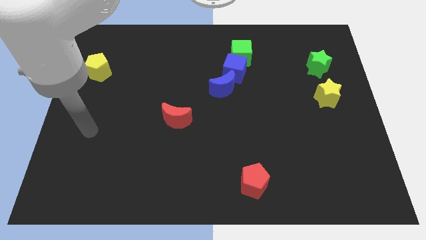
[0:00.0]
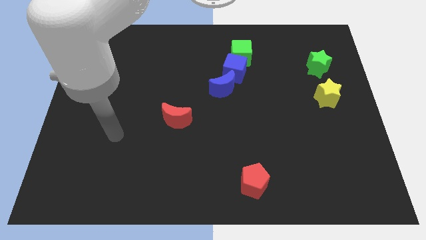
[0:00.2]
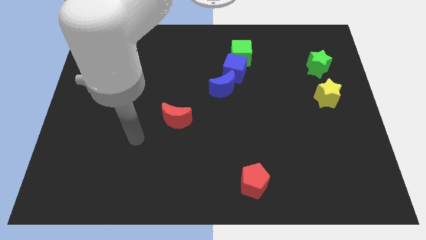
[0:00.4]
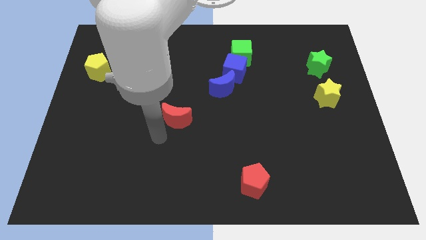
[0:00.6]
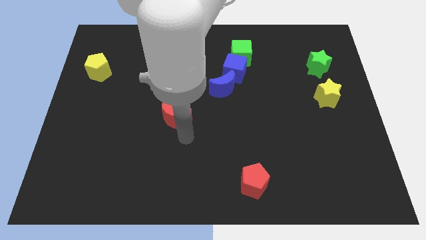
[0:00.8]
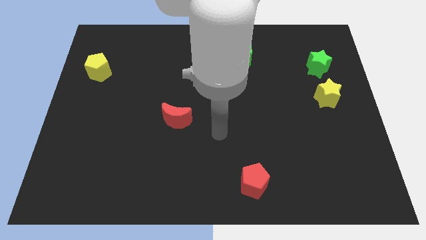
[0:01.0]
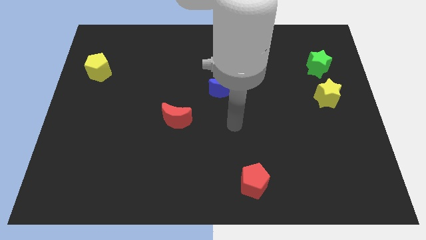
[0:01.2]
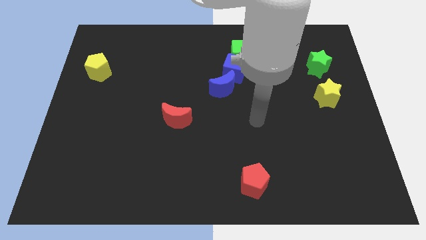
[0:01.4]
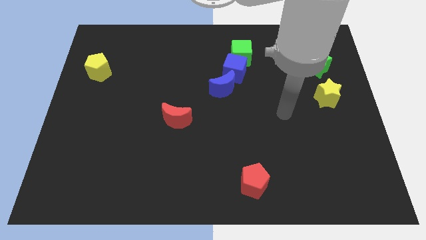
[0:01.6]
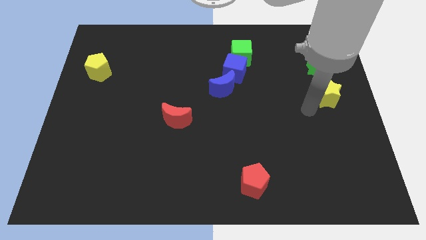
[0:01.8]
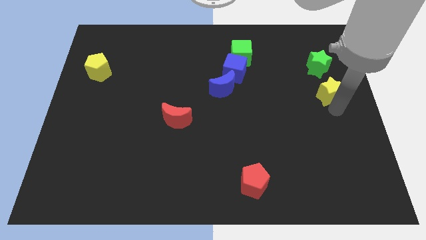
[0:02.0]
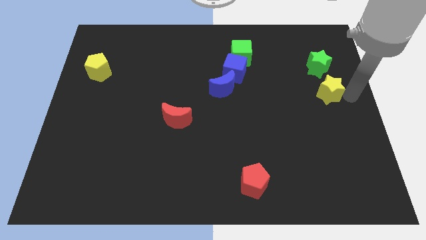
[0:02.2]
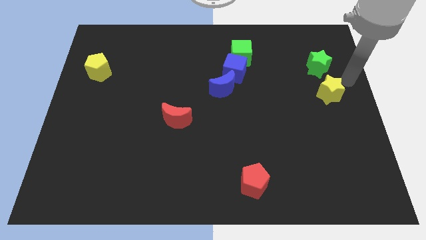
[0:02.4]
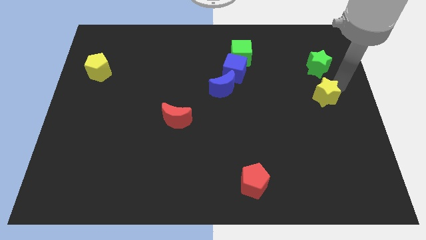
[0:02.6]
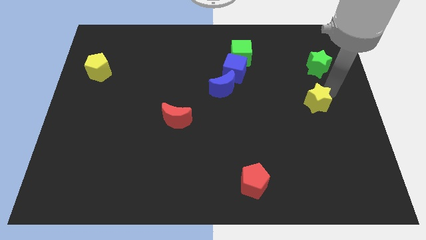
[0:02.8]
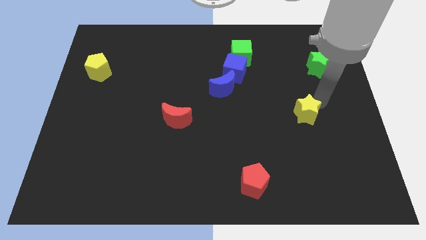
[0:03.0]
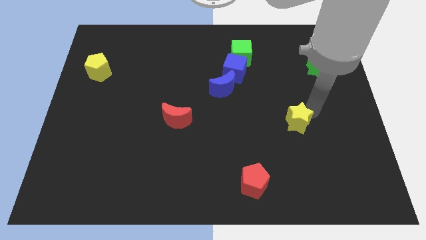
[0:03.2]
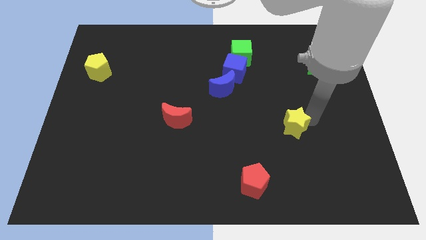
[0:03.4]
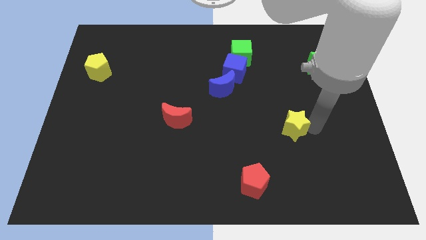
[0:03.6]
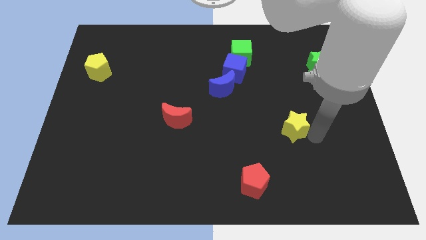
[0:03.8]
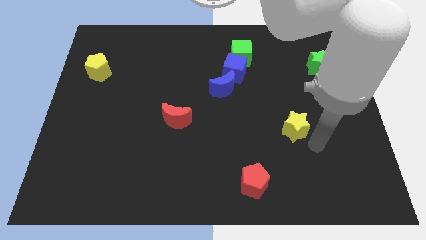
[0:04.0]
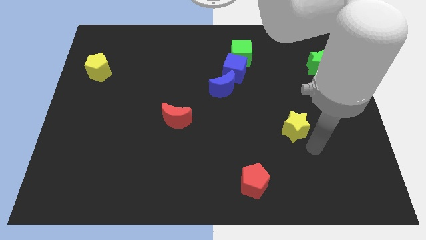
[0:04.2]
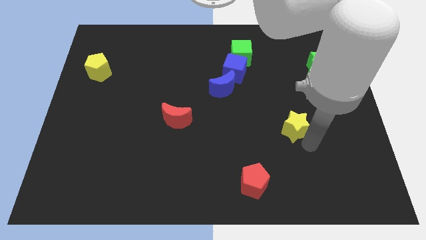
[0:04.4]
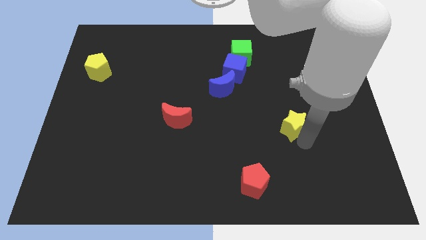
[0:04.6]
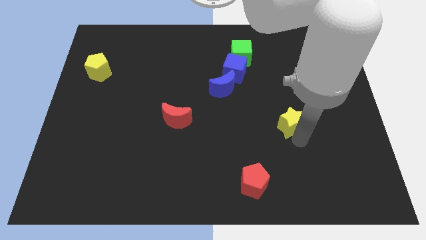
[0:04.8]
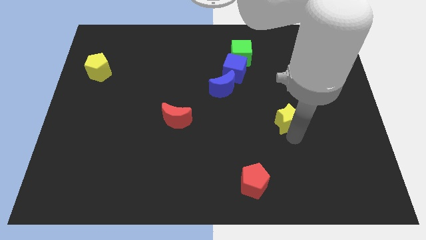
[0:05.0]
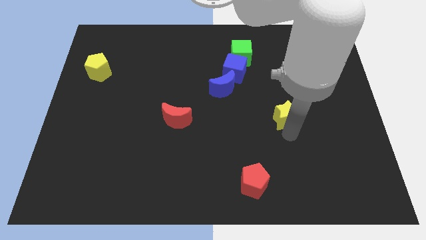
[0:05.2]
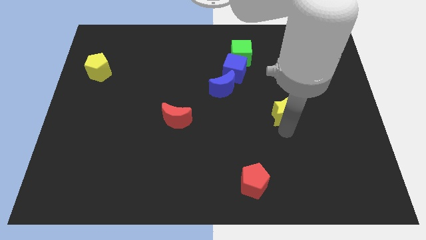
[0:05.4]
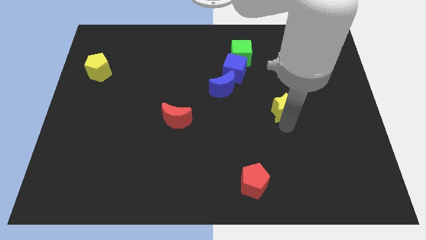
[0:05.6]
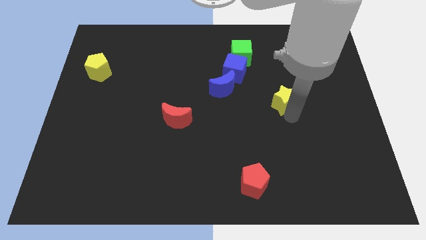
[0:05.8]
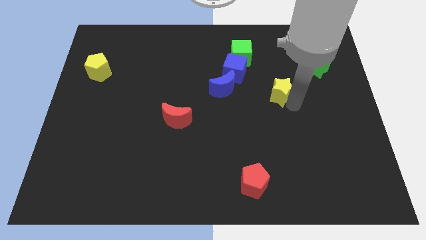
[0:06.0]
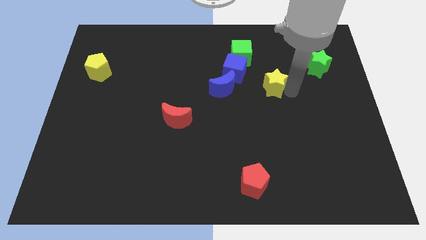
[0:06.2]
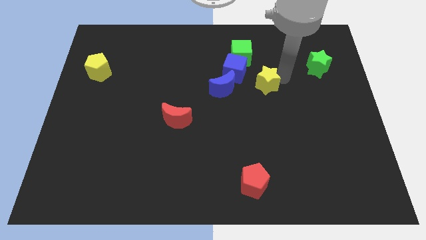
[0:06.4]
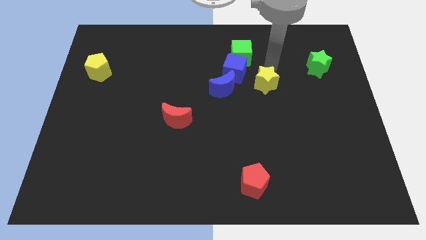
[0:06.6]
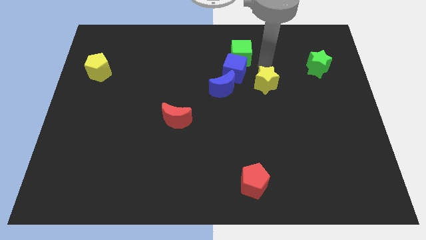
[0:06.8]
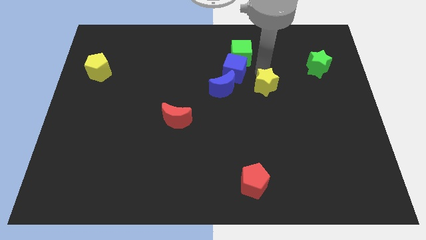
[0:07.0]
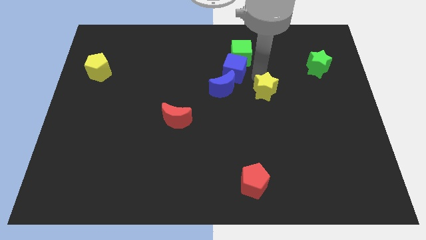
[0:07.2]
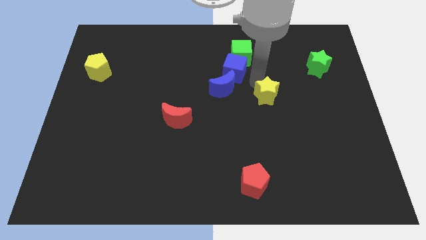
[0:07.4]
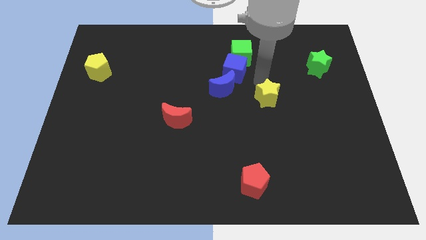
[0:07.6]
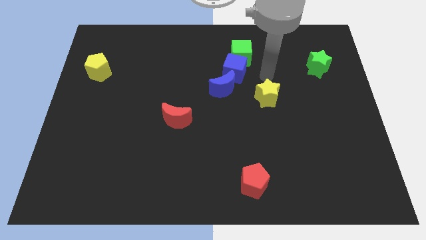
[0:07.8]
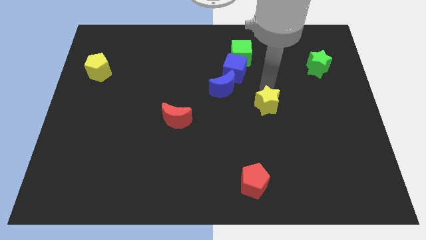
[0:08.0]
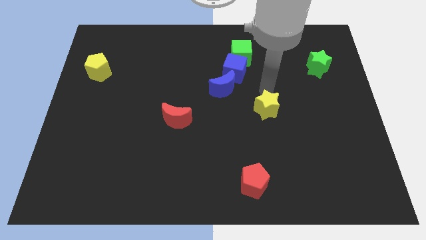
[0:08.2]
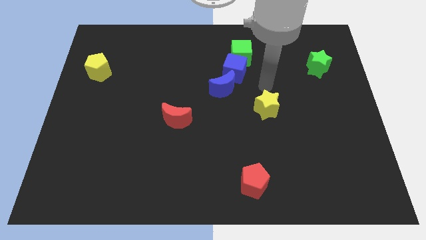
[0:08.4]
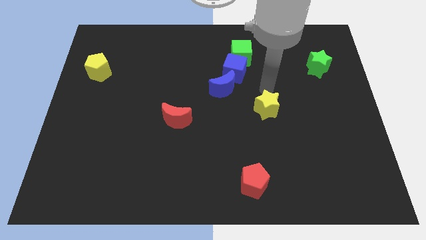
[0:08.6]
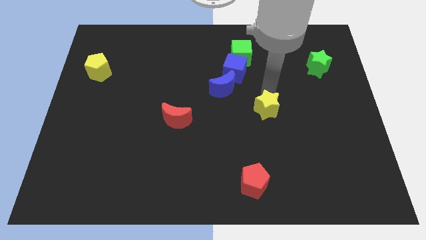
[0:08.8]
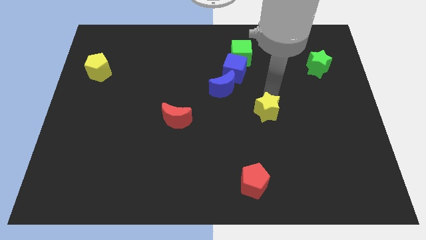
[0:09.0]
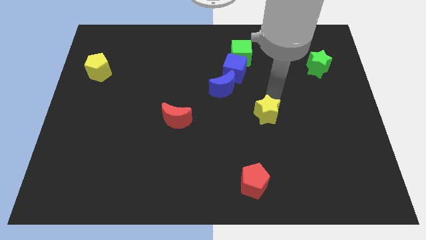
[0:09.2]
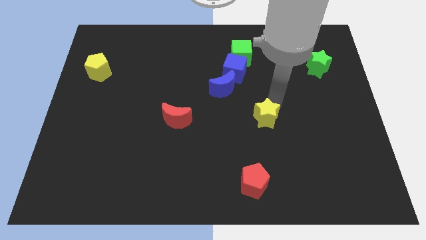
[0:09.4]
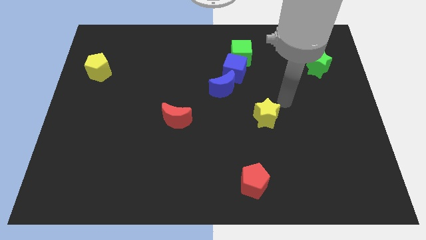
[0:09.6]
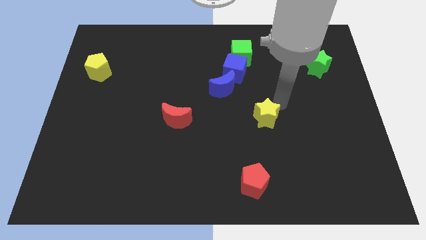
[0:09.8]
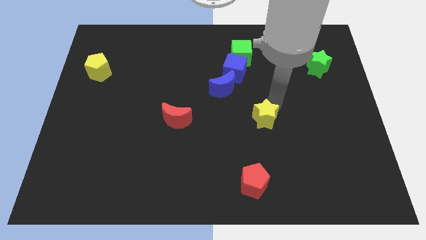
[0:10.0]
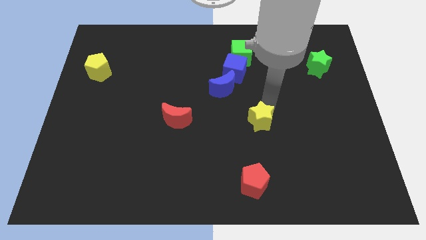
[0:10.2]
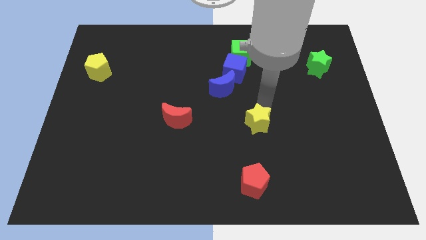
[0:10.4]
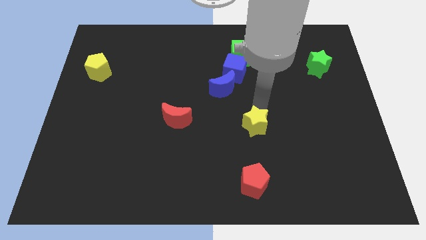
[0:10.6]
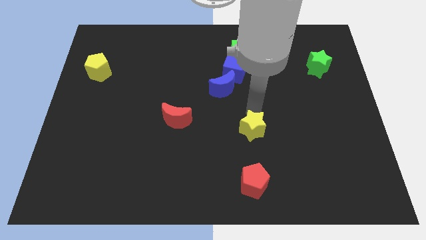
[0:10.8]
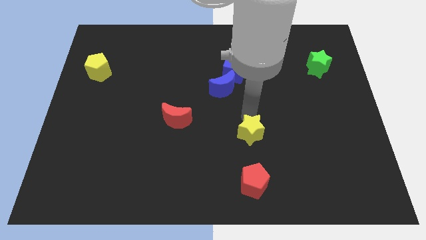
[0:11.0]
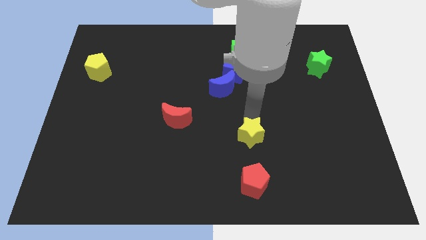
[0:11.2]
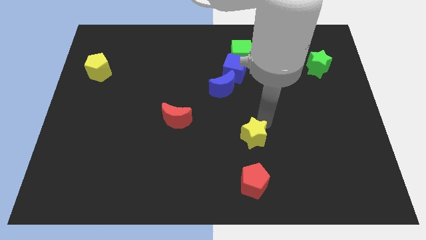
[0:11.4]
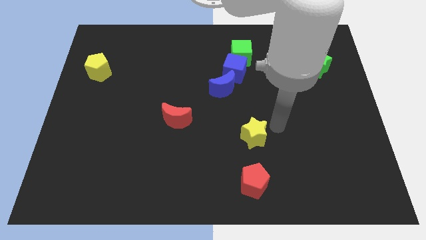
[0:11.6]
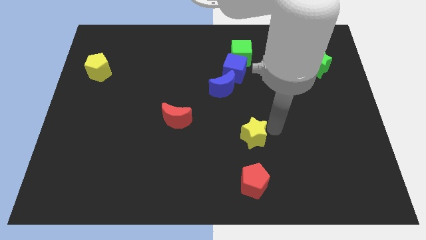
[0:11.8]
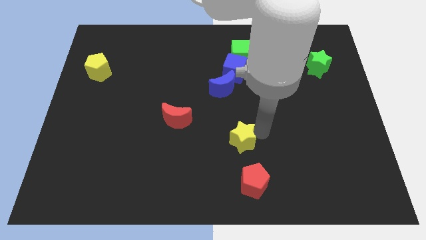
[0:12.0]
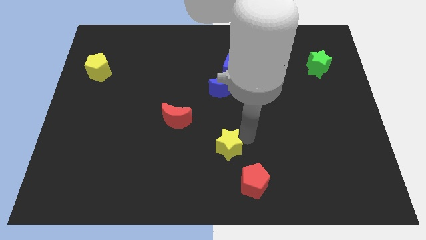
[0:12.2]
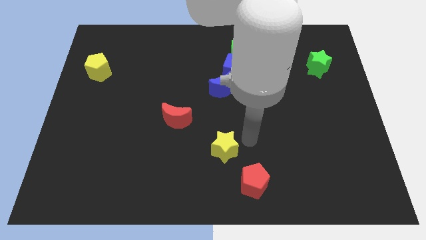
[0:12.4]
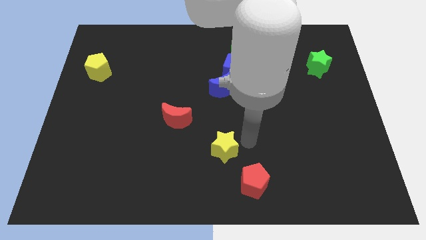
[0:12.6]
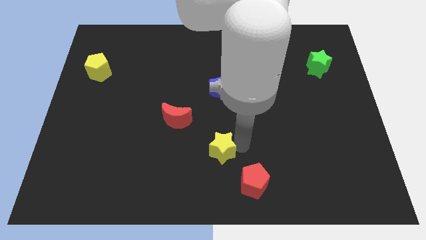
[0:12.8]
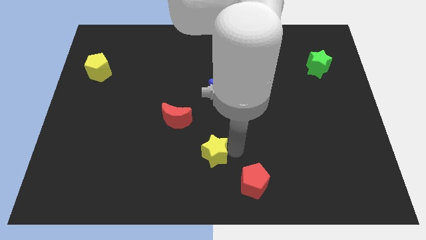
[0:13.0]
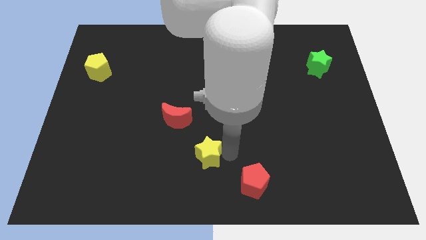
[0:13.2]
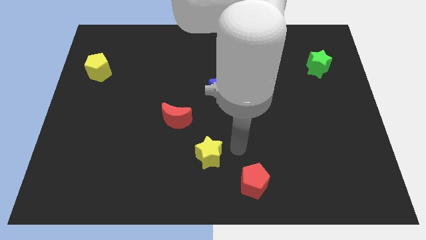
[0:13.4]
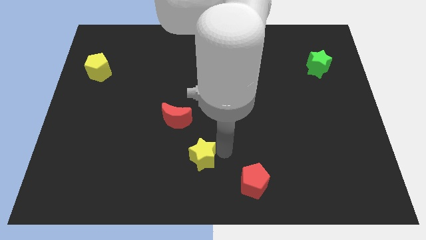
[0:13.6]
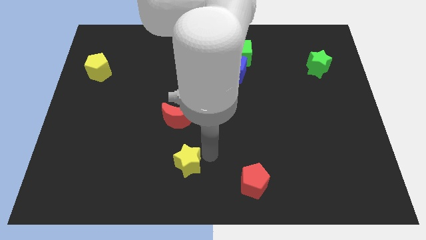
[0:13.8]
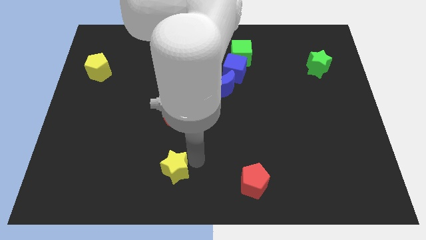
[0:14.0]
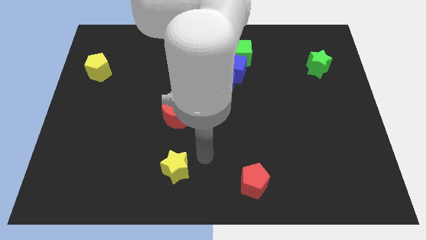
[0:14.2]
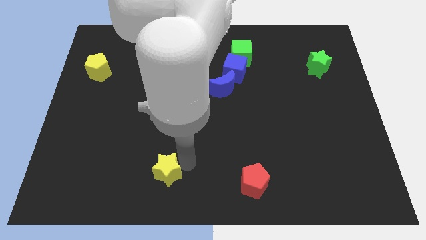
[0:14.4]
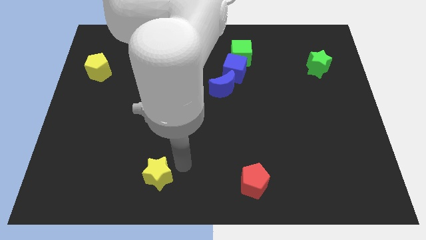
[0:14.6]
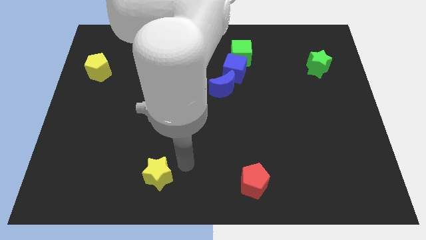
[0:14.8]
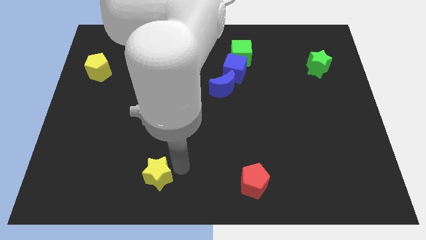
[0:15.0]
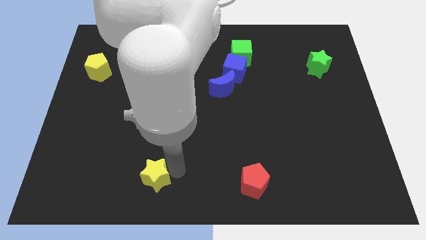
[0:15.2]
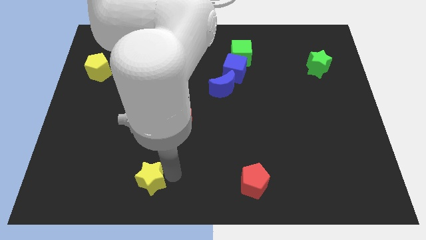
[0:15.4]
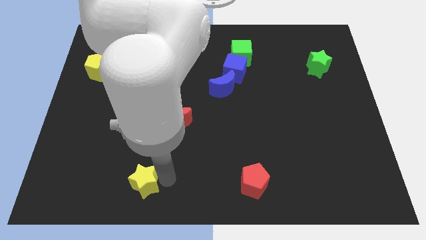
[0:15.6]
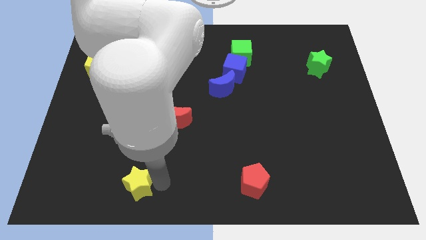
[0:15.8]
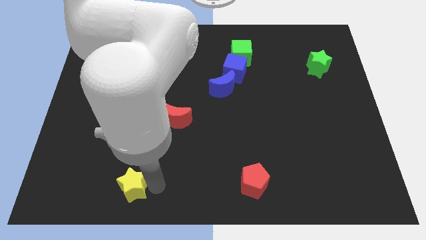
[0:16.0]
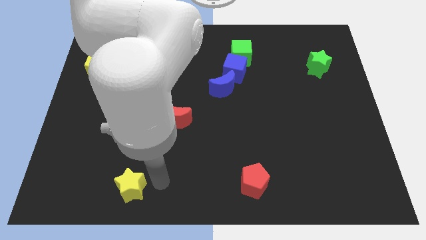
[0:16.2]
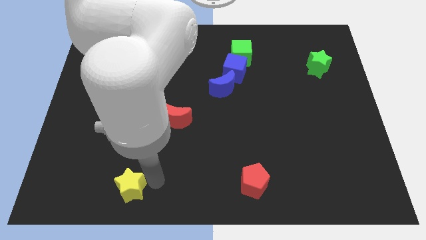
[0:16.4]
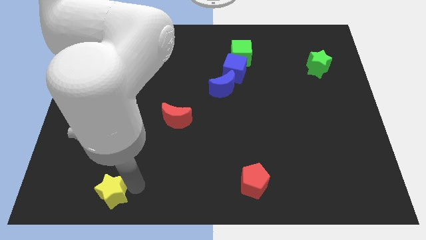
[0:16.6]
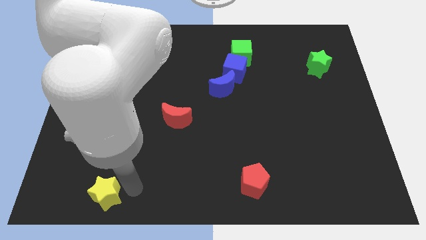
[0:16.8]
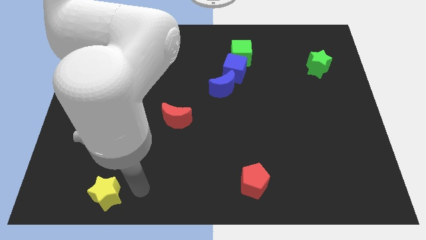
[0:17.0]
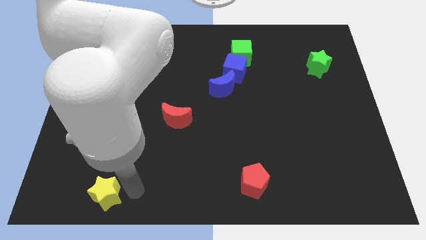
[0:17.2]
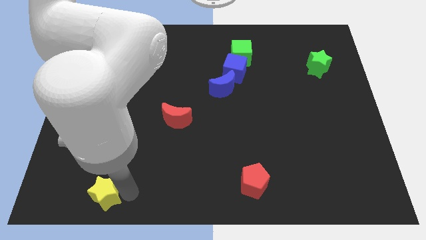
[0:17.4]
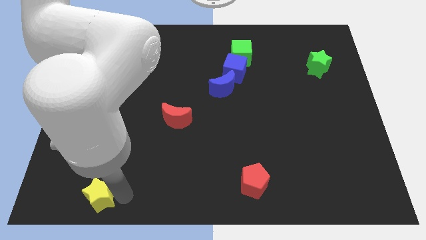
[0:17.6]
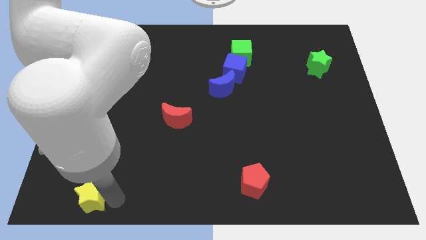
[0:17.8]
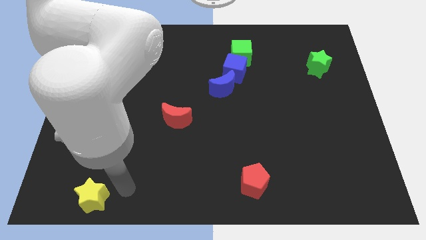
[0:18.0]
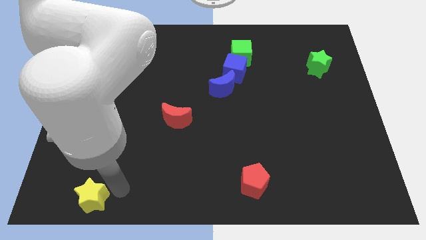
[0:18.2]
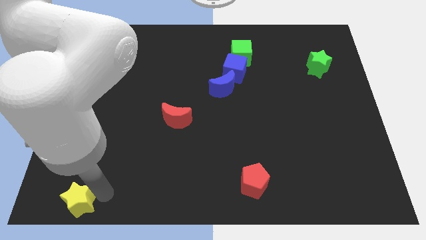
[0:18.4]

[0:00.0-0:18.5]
move the yellow star to the bottom left of the board
